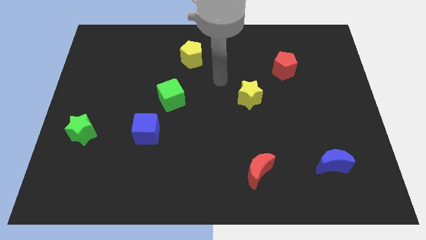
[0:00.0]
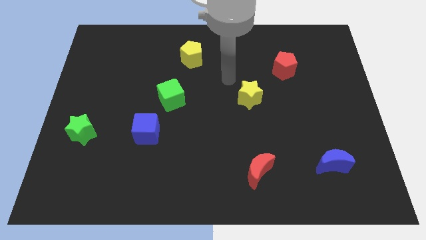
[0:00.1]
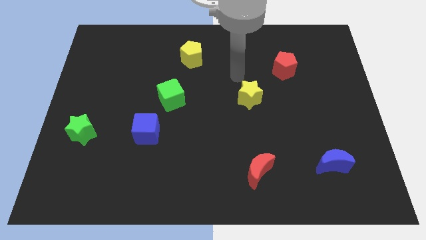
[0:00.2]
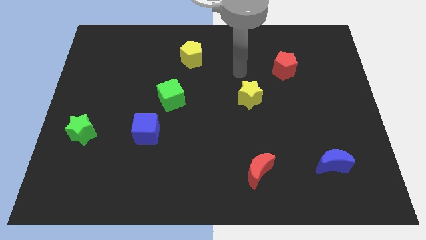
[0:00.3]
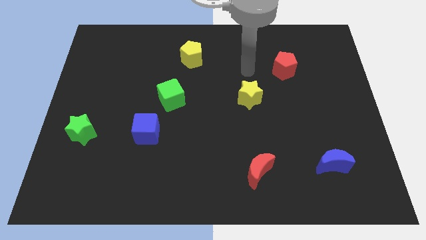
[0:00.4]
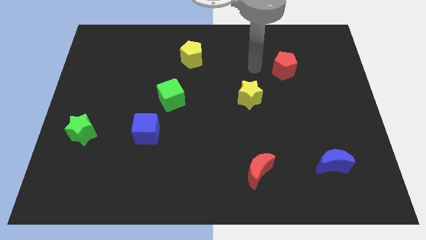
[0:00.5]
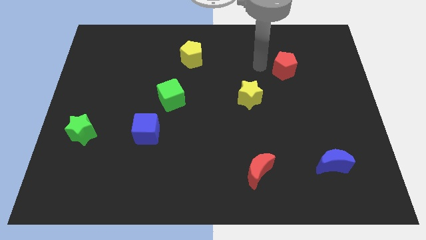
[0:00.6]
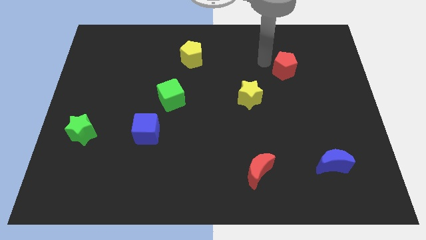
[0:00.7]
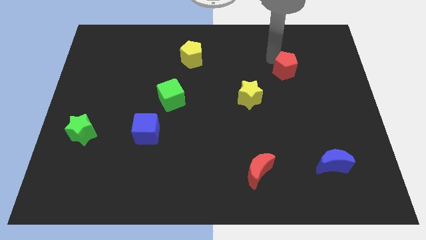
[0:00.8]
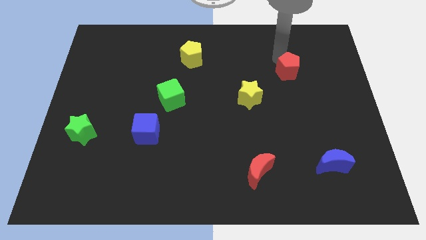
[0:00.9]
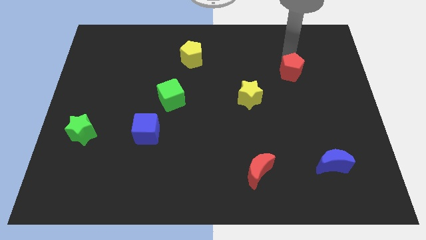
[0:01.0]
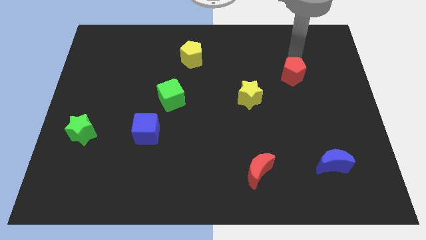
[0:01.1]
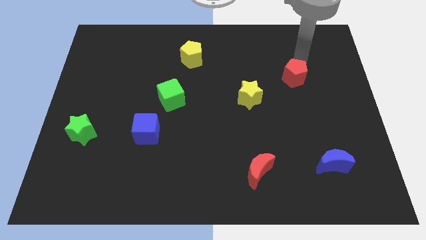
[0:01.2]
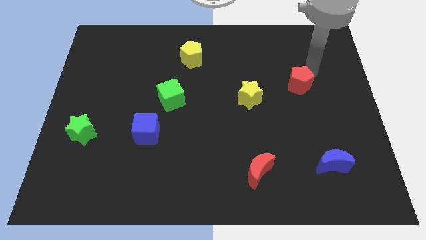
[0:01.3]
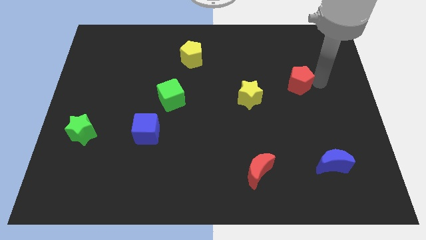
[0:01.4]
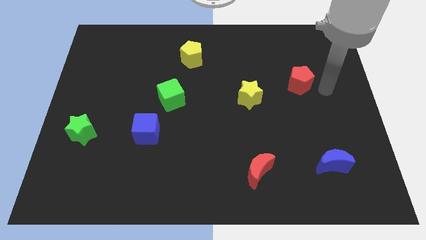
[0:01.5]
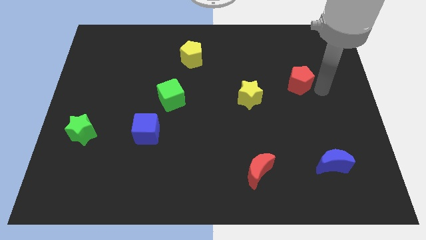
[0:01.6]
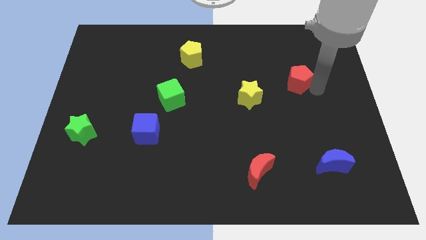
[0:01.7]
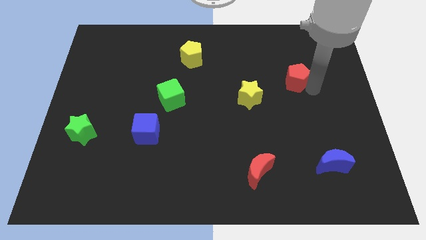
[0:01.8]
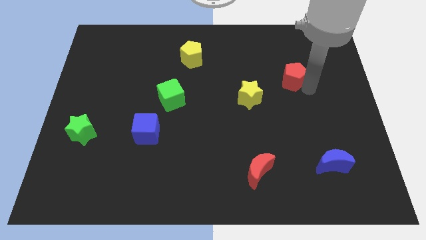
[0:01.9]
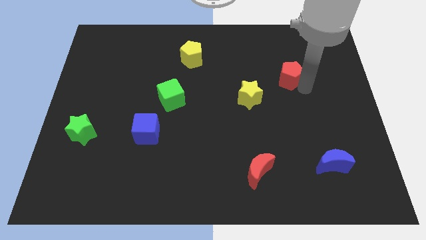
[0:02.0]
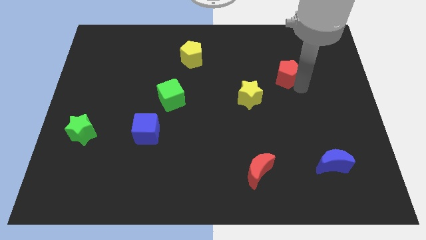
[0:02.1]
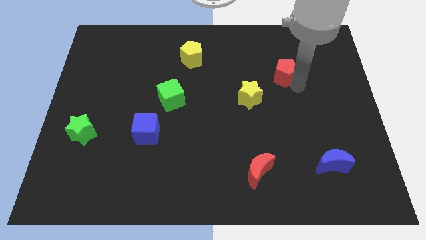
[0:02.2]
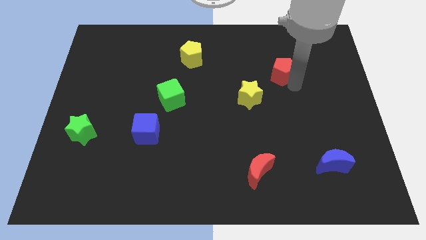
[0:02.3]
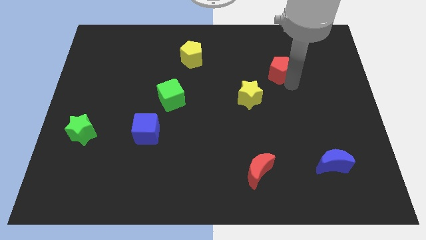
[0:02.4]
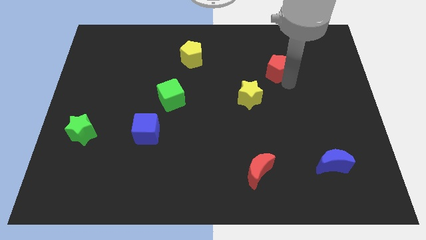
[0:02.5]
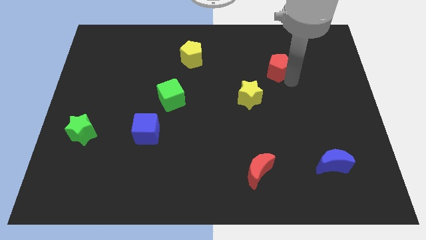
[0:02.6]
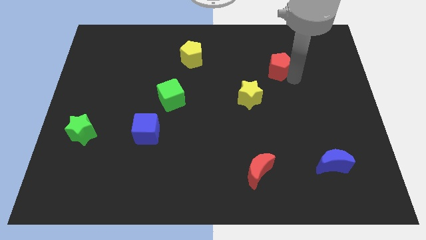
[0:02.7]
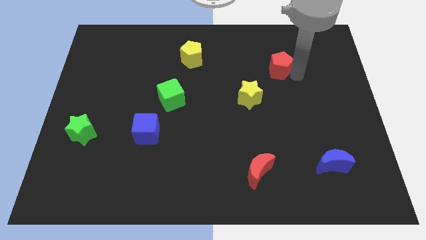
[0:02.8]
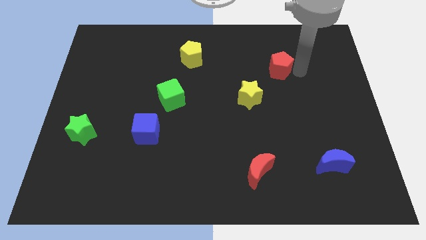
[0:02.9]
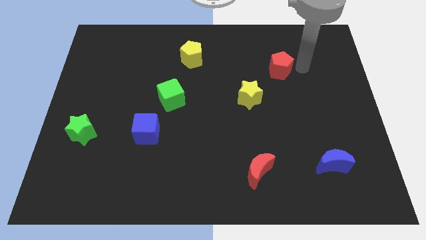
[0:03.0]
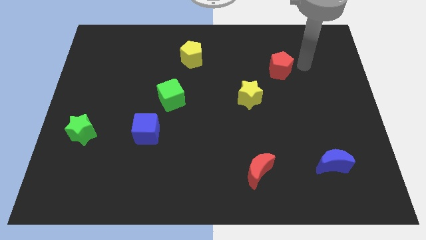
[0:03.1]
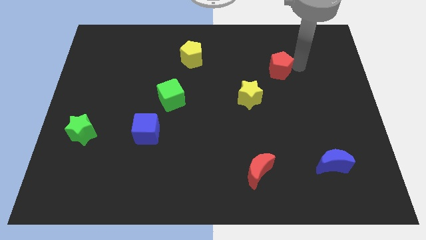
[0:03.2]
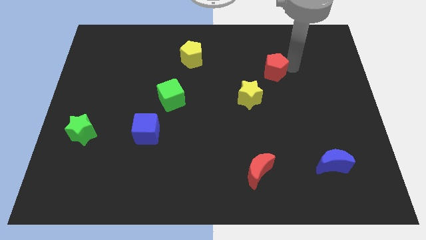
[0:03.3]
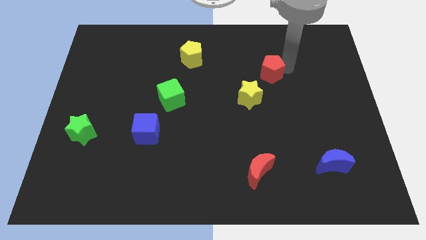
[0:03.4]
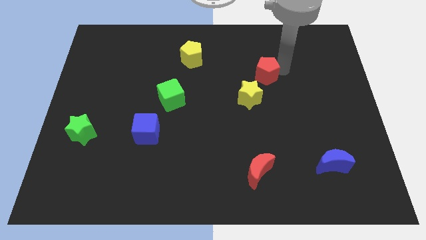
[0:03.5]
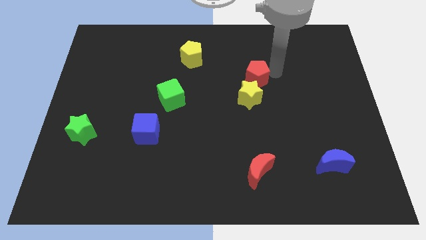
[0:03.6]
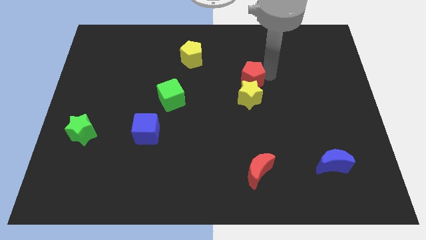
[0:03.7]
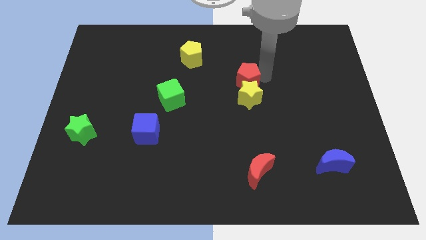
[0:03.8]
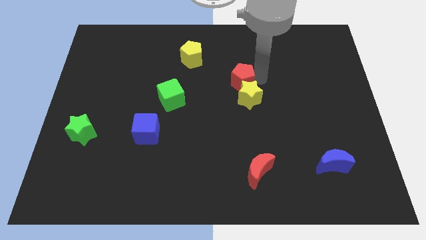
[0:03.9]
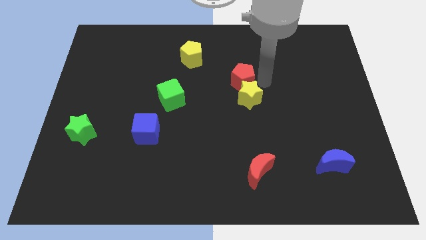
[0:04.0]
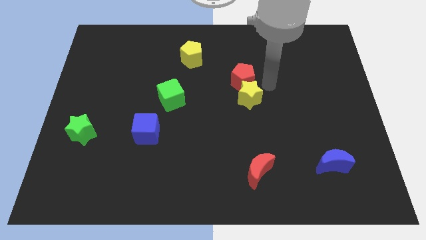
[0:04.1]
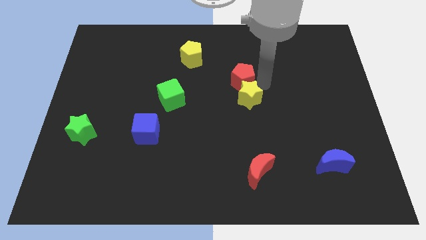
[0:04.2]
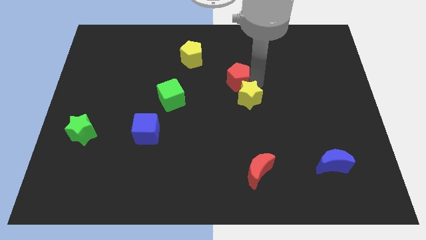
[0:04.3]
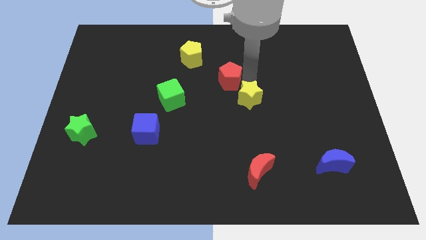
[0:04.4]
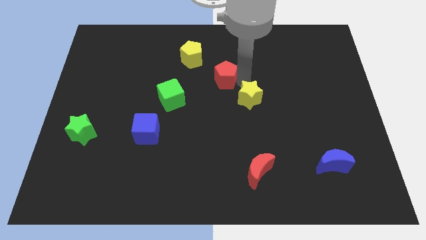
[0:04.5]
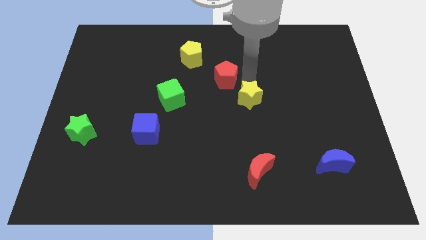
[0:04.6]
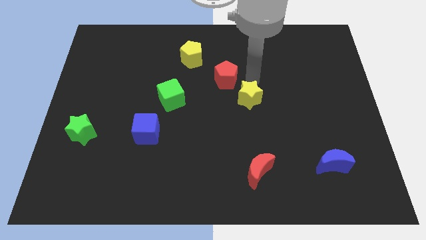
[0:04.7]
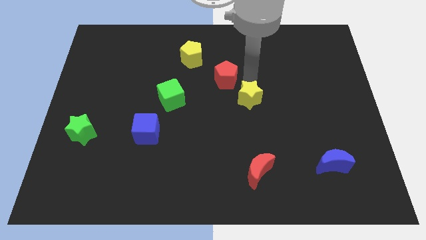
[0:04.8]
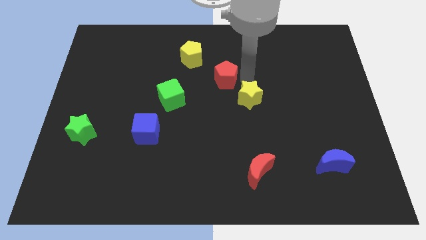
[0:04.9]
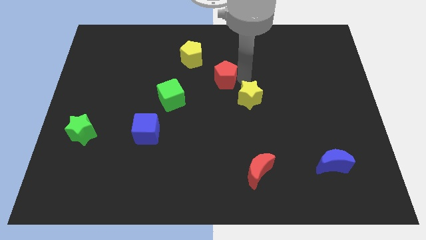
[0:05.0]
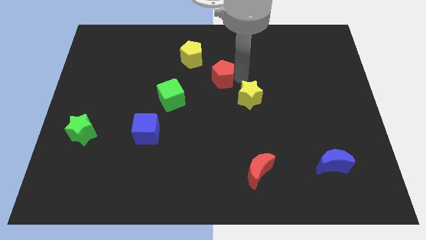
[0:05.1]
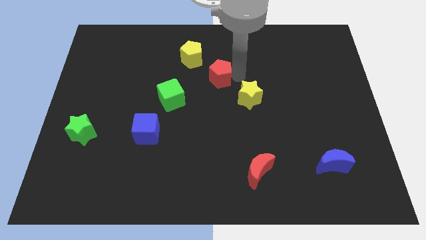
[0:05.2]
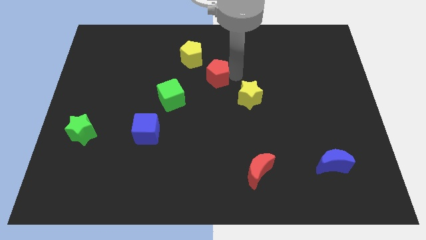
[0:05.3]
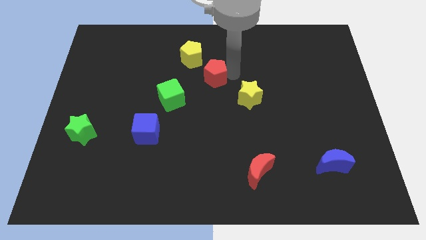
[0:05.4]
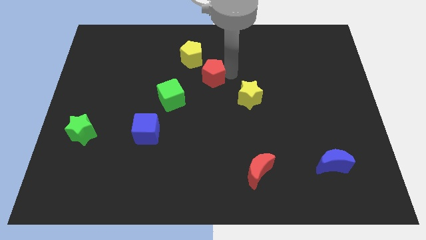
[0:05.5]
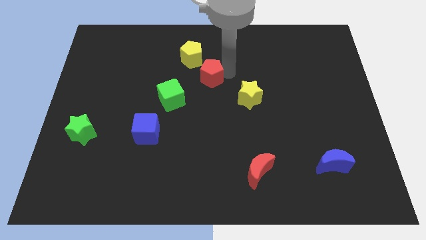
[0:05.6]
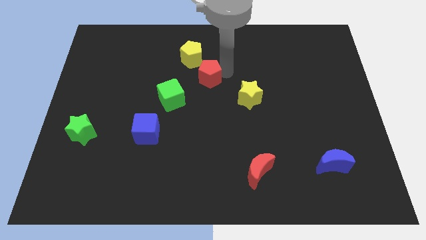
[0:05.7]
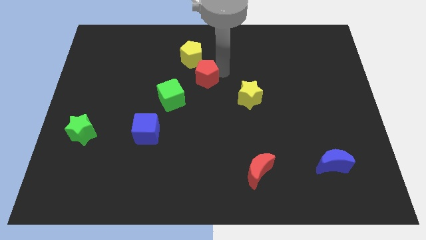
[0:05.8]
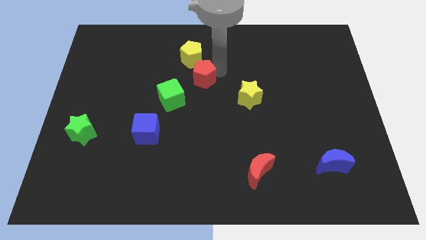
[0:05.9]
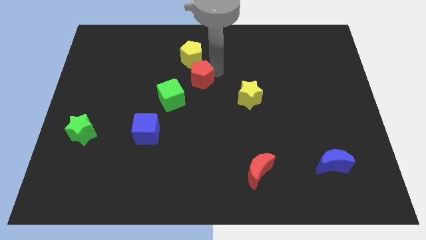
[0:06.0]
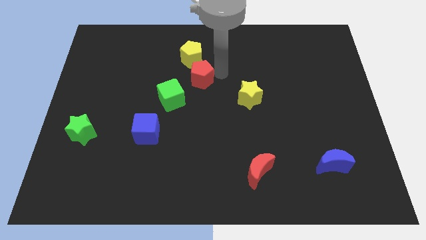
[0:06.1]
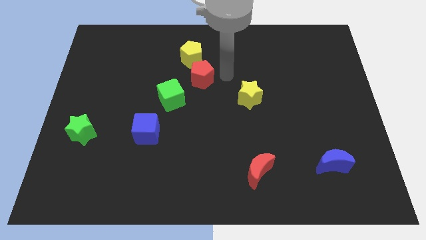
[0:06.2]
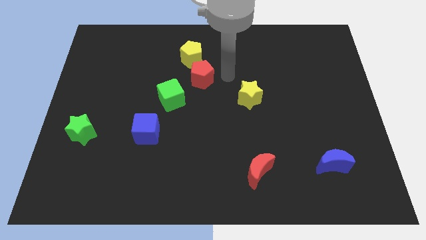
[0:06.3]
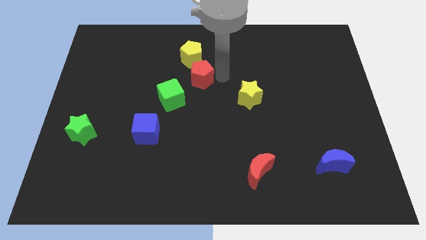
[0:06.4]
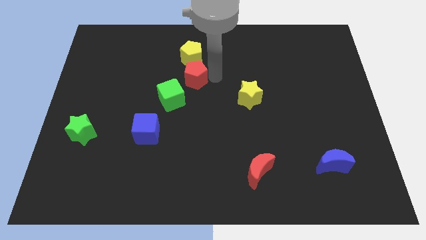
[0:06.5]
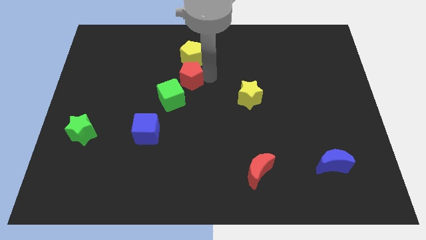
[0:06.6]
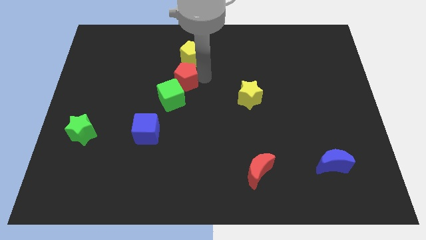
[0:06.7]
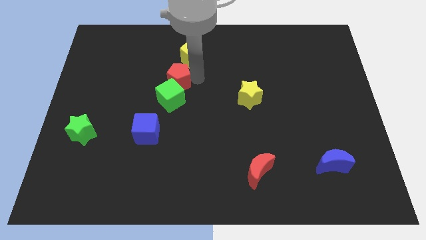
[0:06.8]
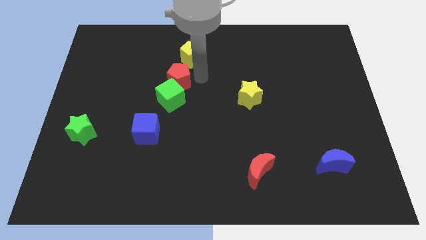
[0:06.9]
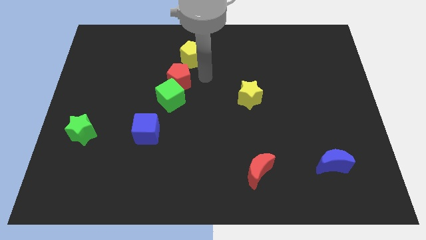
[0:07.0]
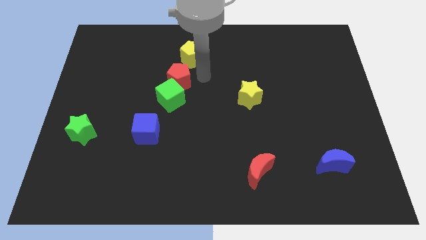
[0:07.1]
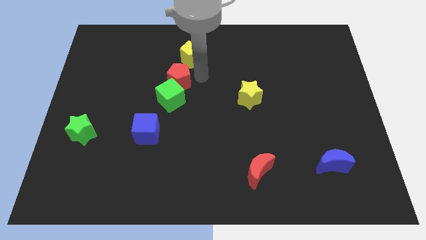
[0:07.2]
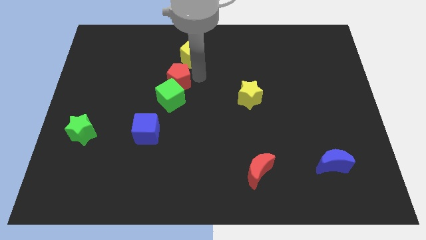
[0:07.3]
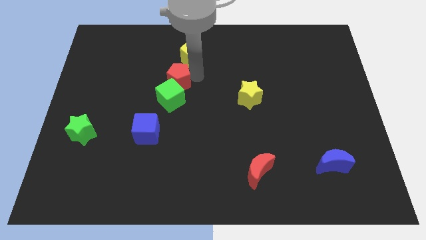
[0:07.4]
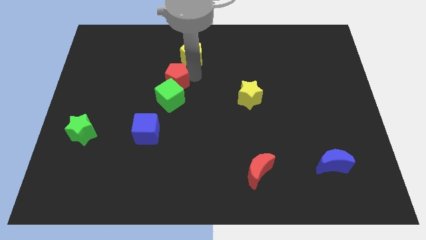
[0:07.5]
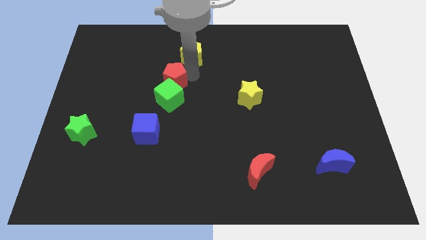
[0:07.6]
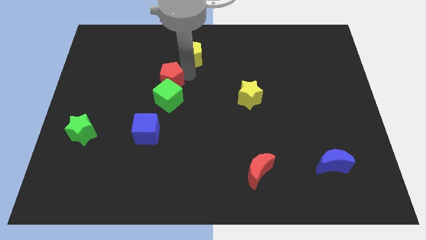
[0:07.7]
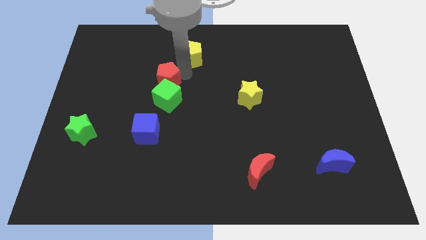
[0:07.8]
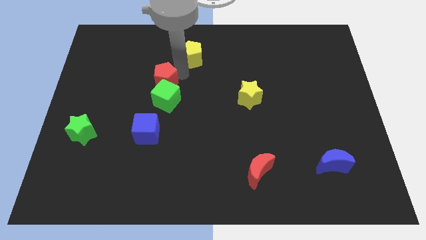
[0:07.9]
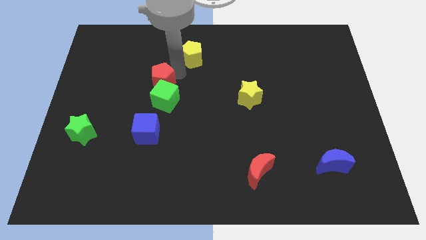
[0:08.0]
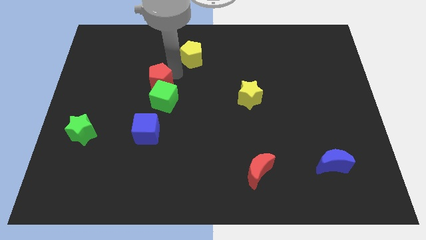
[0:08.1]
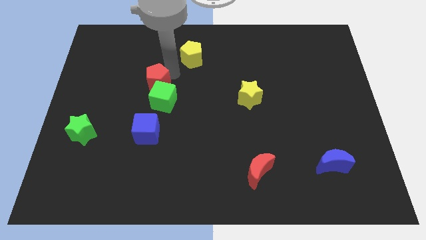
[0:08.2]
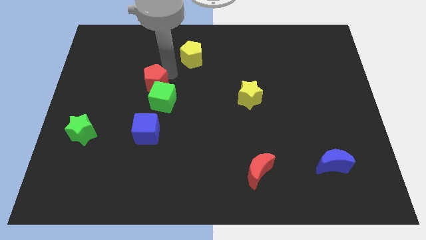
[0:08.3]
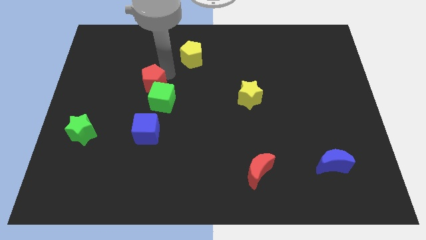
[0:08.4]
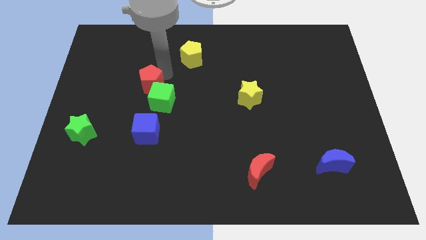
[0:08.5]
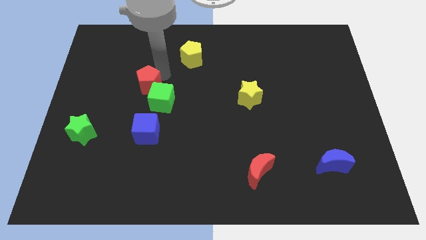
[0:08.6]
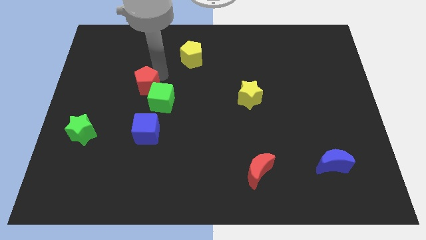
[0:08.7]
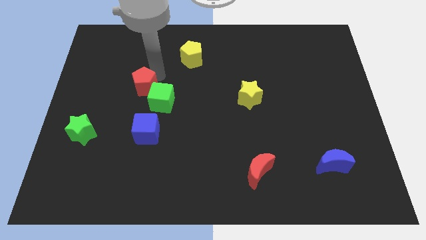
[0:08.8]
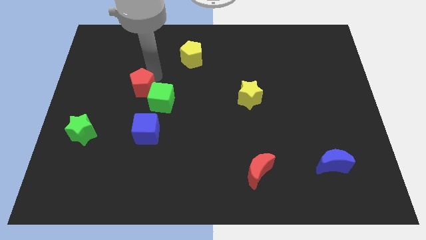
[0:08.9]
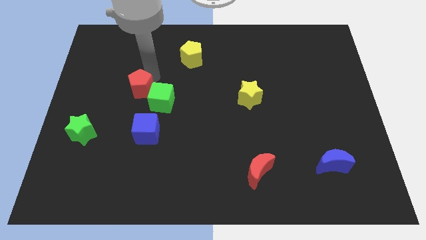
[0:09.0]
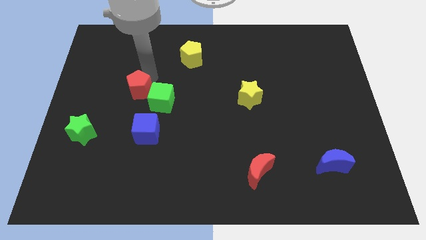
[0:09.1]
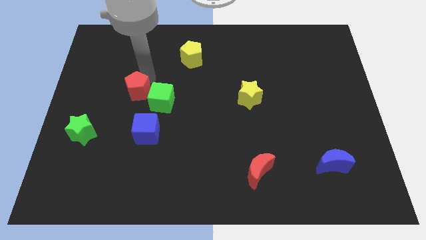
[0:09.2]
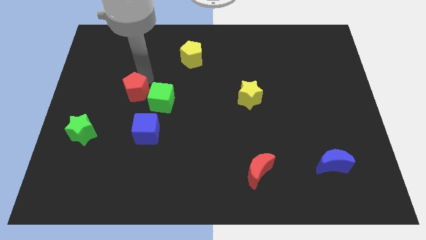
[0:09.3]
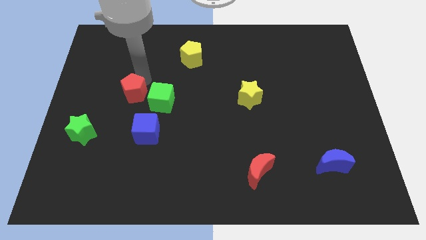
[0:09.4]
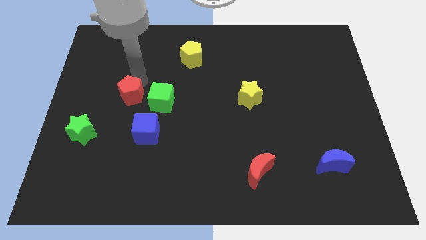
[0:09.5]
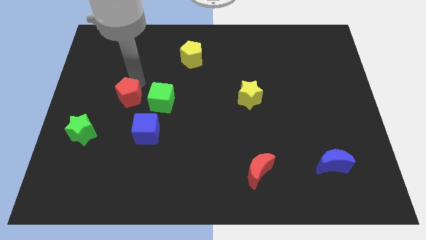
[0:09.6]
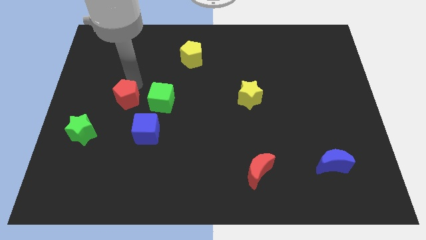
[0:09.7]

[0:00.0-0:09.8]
slide the red pentagon to the top right side of the green star
